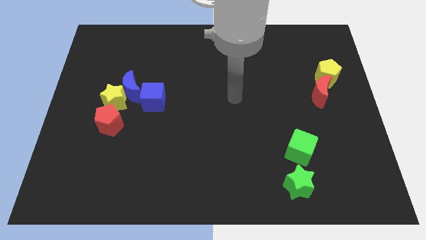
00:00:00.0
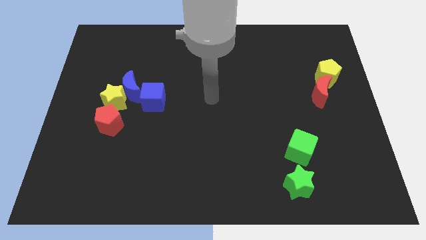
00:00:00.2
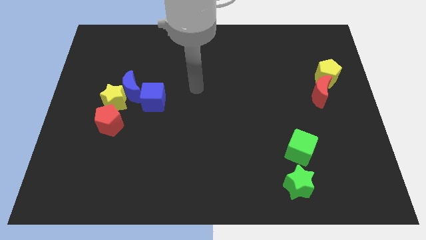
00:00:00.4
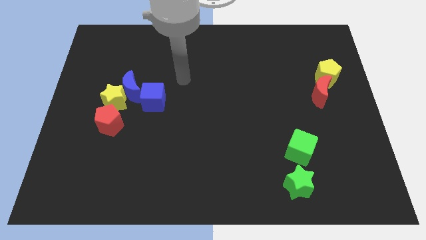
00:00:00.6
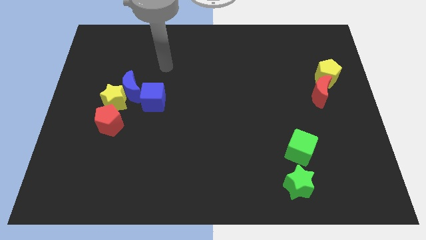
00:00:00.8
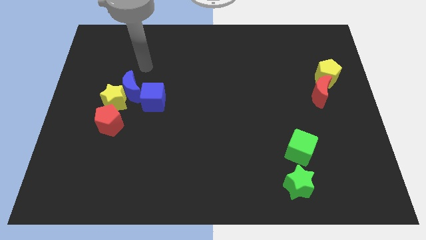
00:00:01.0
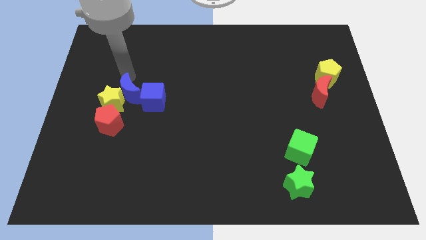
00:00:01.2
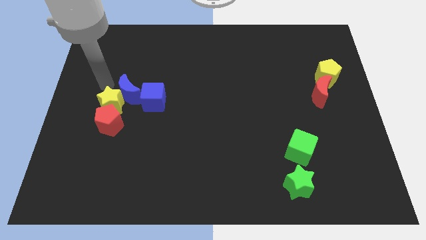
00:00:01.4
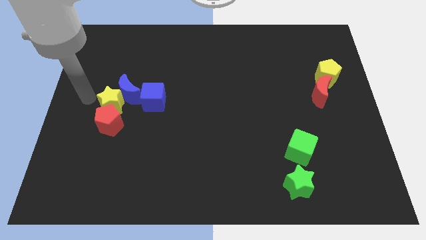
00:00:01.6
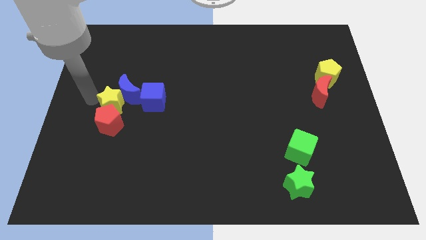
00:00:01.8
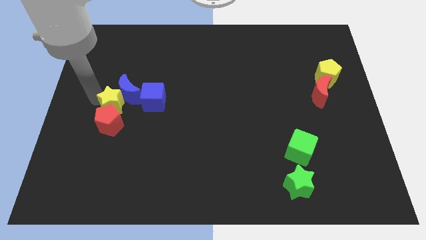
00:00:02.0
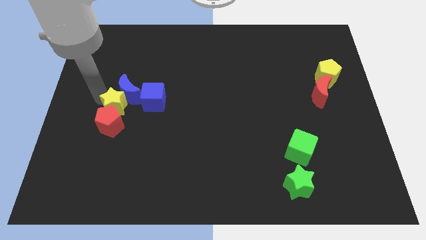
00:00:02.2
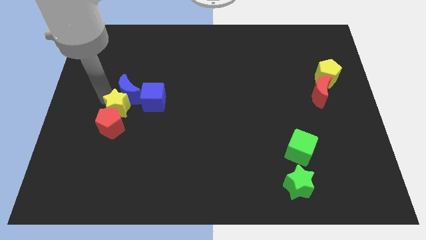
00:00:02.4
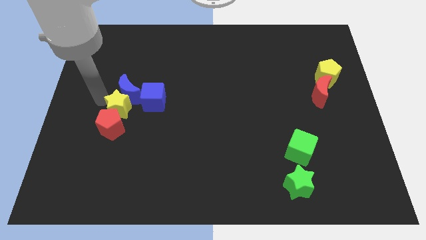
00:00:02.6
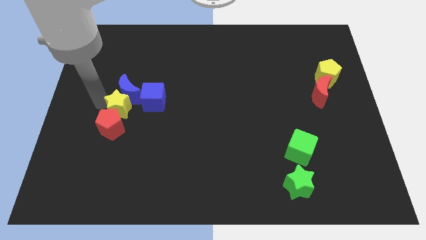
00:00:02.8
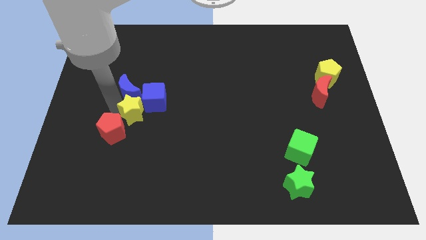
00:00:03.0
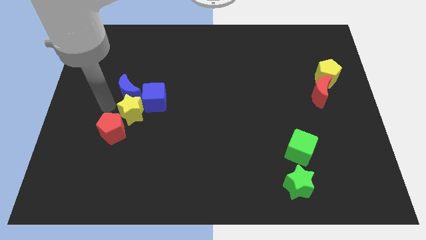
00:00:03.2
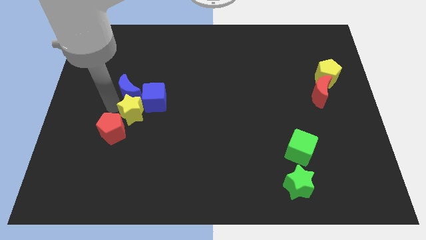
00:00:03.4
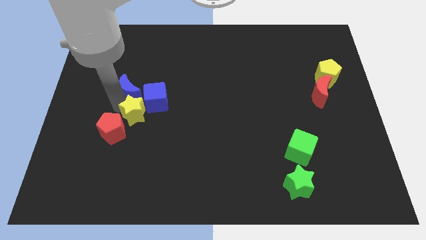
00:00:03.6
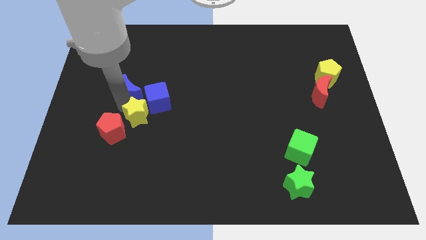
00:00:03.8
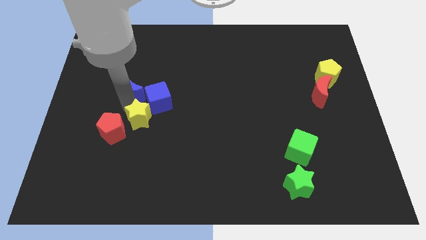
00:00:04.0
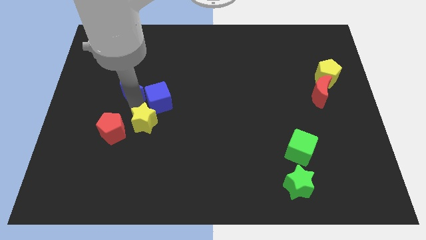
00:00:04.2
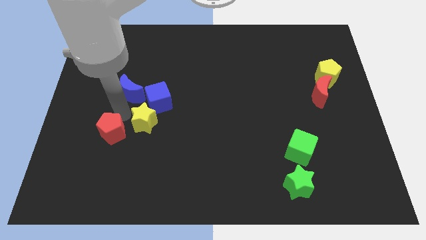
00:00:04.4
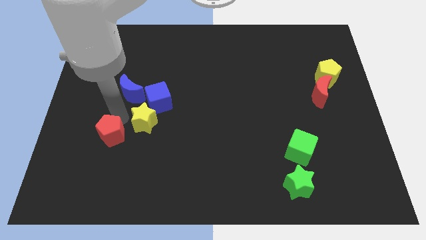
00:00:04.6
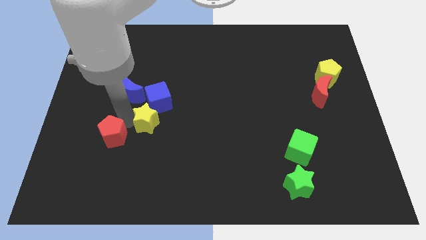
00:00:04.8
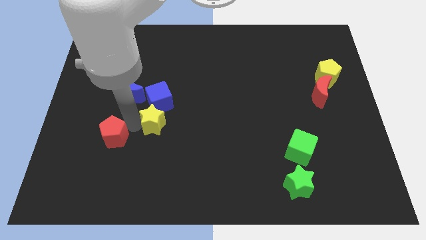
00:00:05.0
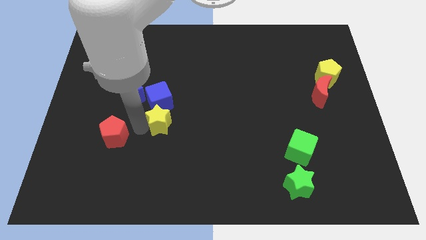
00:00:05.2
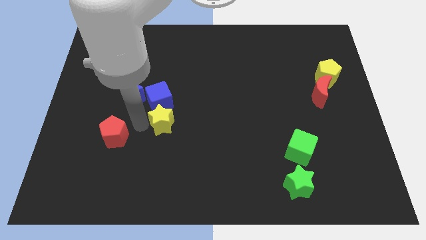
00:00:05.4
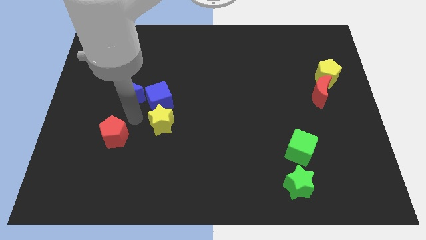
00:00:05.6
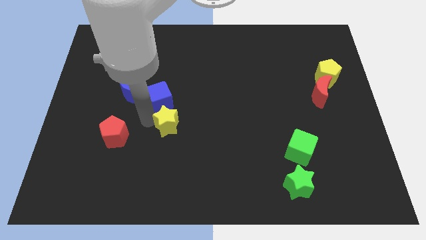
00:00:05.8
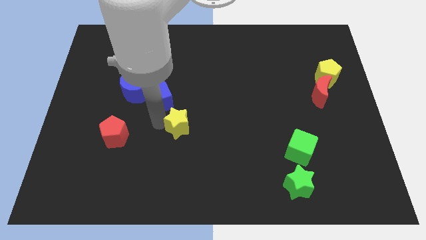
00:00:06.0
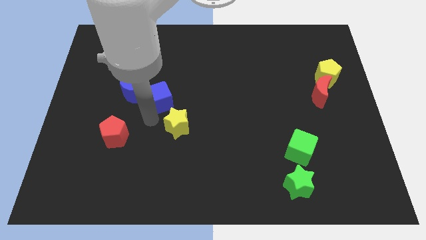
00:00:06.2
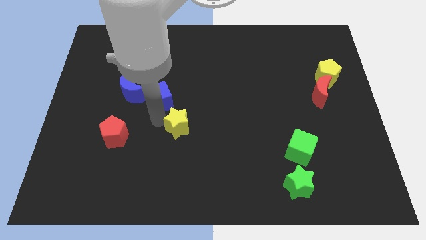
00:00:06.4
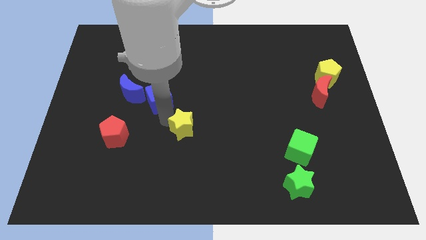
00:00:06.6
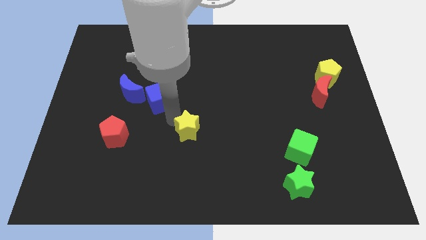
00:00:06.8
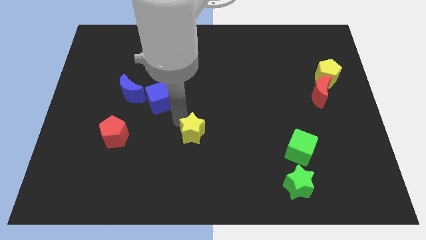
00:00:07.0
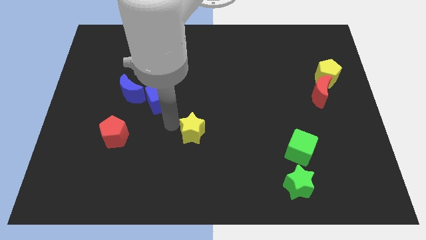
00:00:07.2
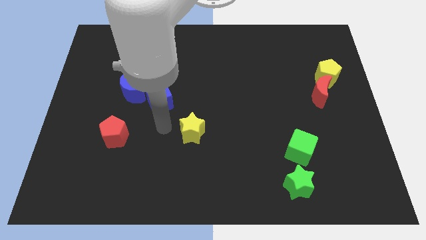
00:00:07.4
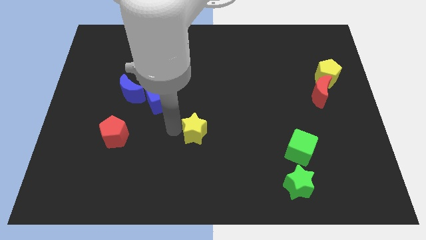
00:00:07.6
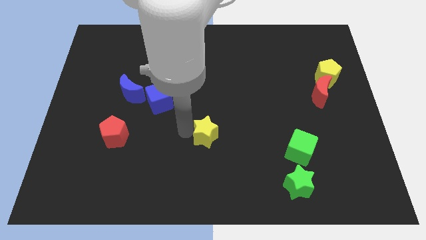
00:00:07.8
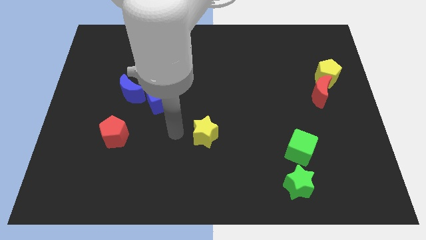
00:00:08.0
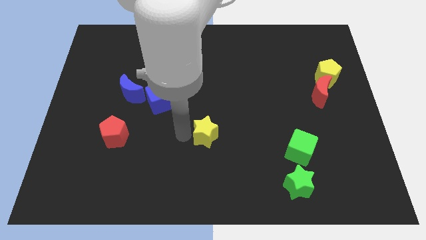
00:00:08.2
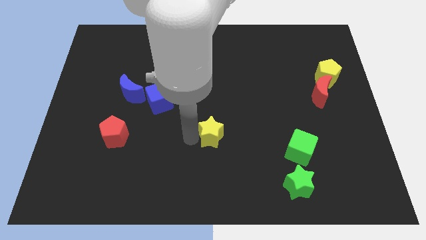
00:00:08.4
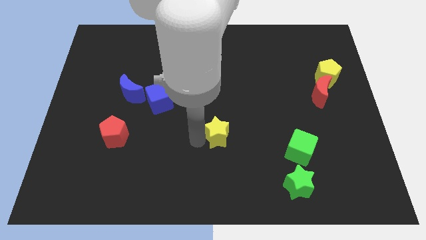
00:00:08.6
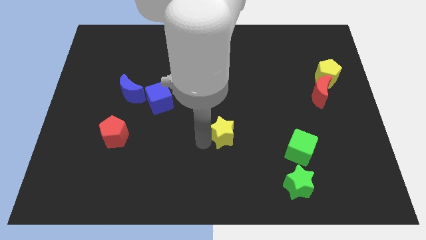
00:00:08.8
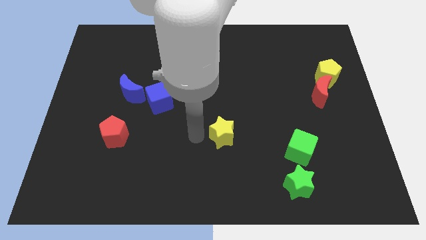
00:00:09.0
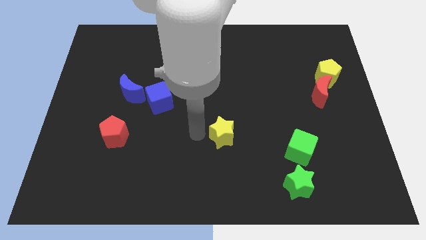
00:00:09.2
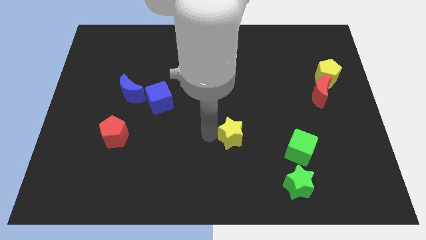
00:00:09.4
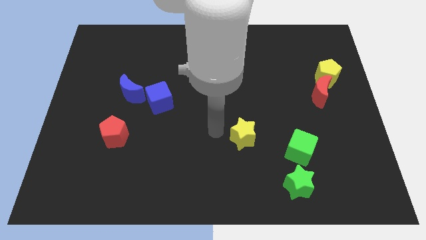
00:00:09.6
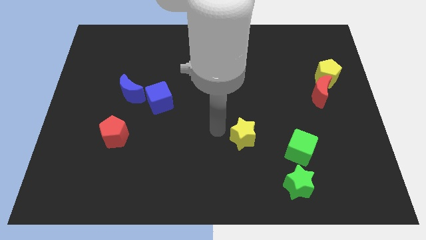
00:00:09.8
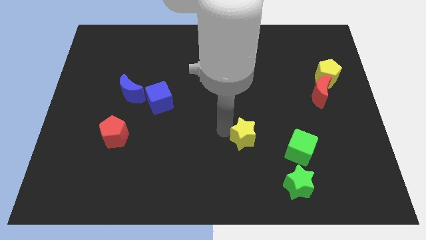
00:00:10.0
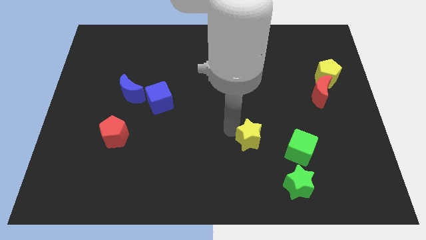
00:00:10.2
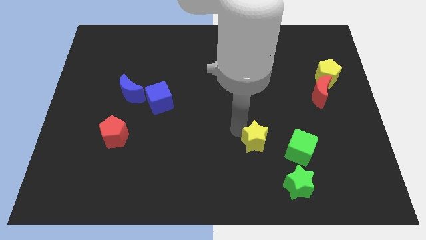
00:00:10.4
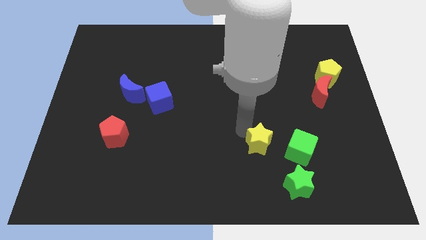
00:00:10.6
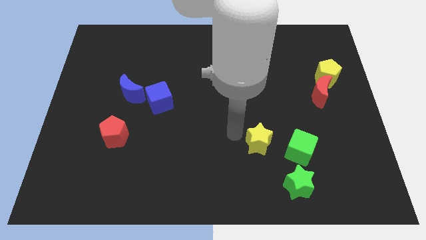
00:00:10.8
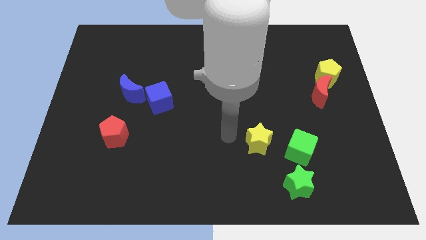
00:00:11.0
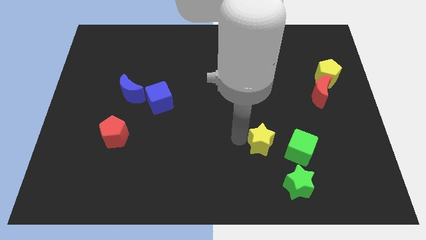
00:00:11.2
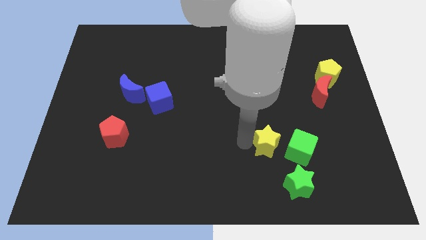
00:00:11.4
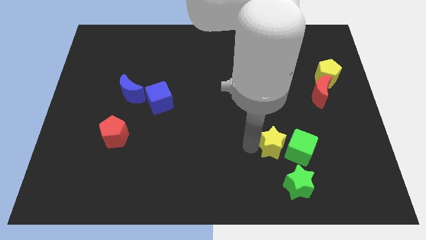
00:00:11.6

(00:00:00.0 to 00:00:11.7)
slide the yellow star close to the green cube

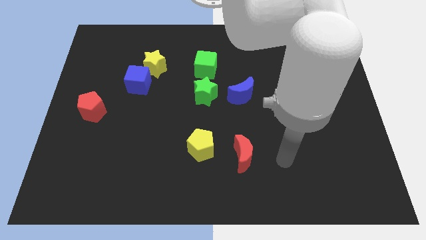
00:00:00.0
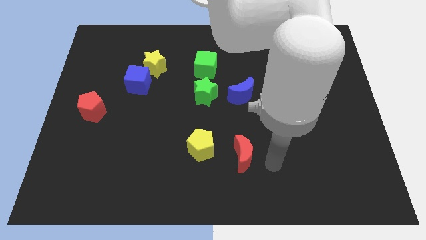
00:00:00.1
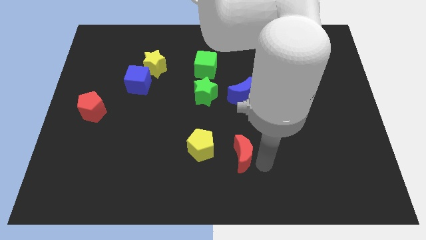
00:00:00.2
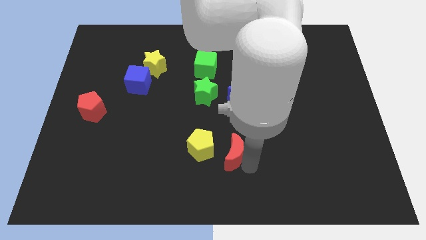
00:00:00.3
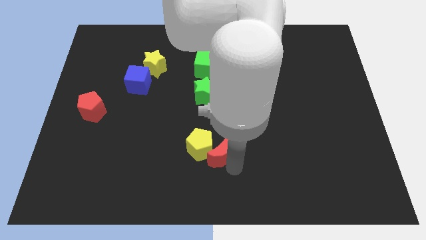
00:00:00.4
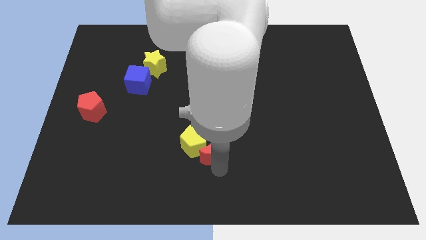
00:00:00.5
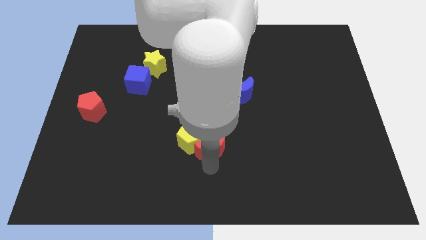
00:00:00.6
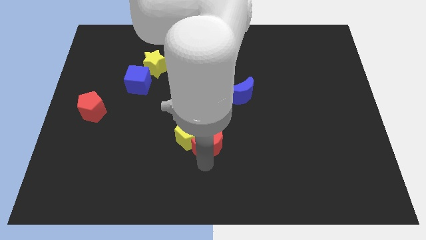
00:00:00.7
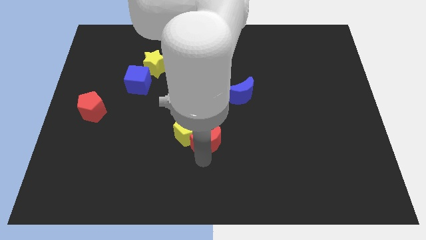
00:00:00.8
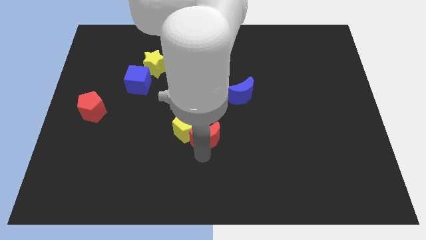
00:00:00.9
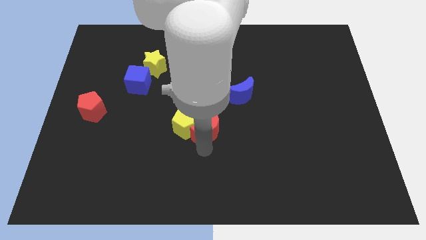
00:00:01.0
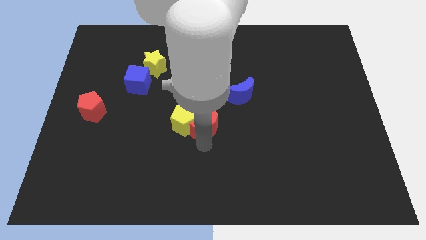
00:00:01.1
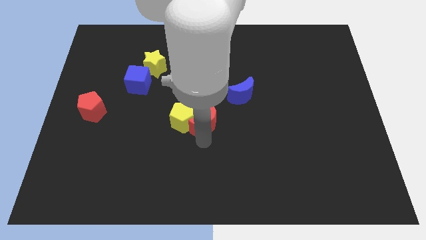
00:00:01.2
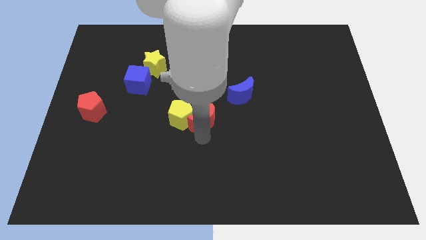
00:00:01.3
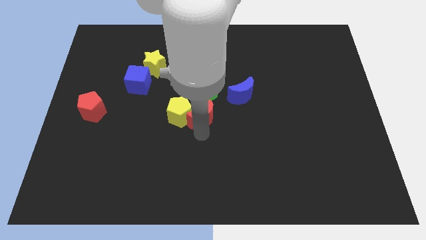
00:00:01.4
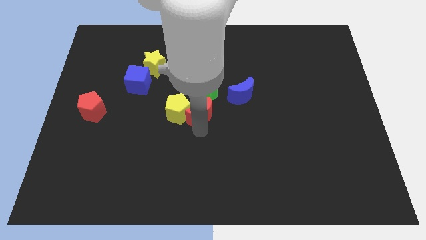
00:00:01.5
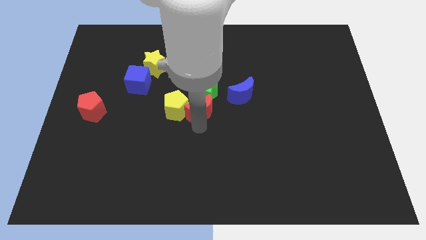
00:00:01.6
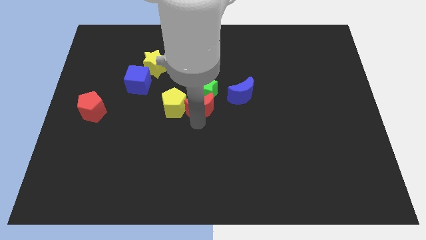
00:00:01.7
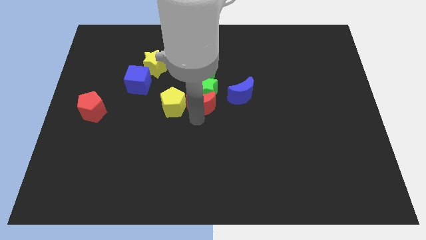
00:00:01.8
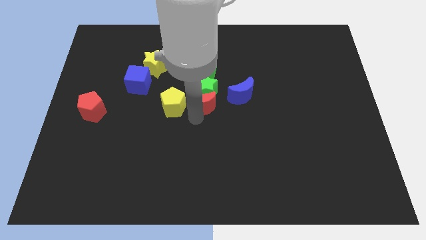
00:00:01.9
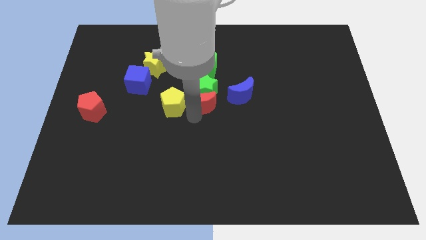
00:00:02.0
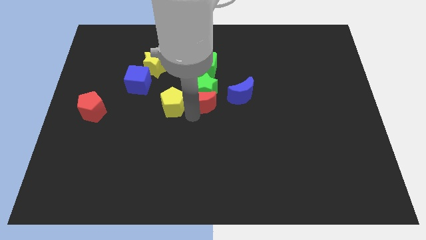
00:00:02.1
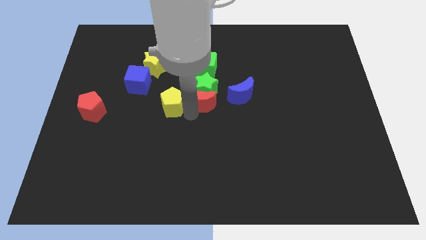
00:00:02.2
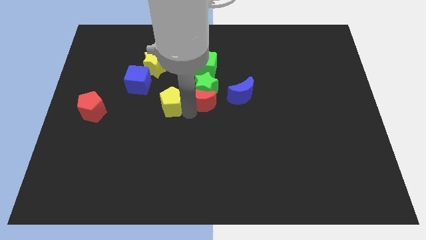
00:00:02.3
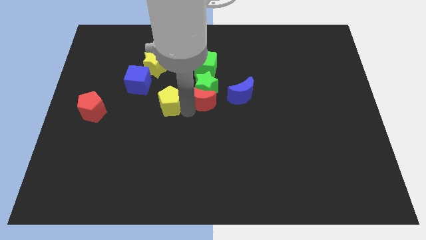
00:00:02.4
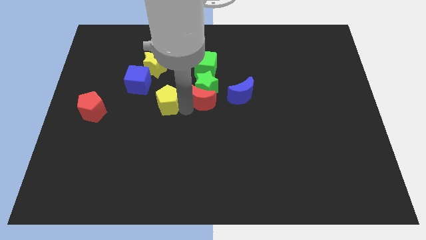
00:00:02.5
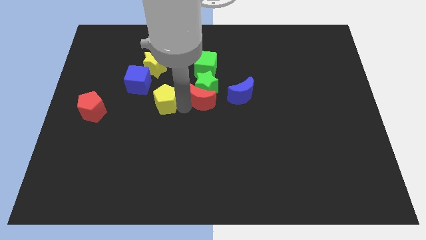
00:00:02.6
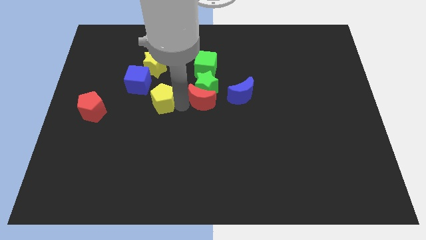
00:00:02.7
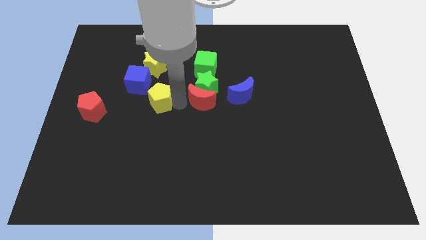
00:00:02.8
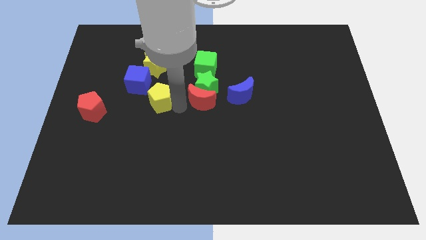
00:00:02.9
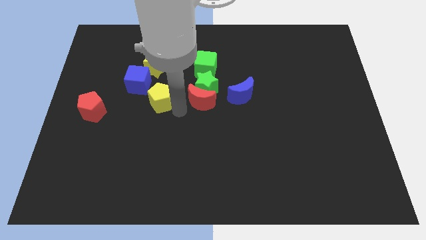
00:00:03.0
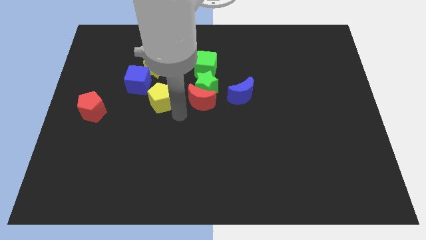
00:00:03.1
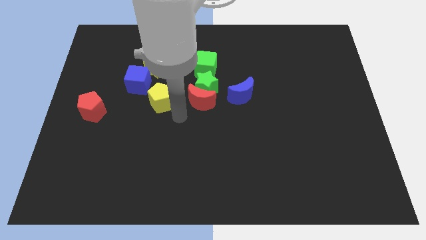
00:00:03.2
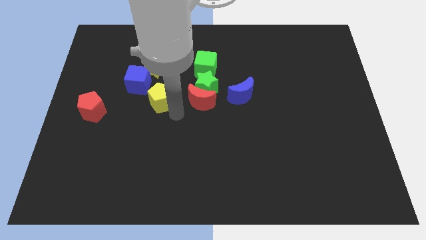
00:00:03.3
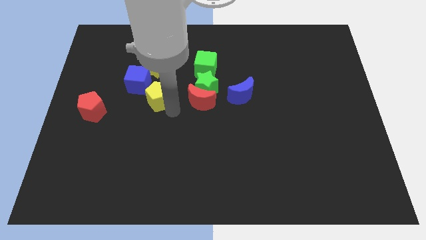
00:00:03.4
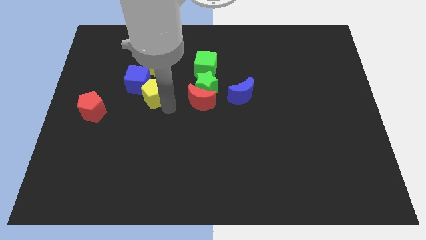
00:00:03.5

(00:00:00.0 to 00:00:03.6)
slide the yellow pentagon next to the blue cube
